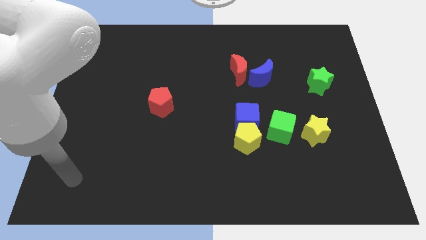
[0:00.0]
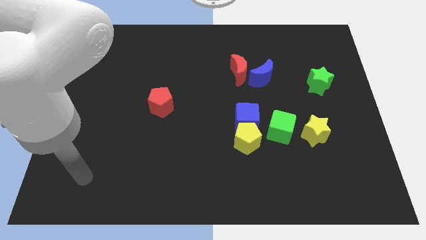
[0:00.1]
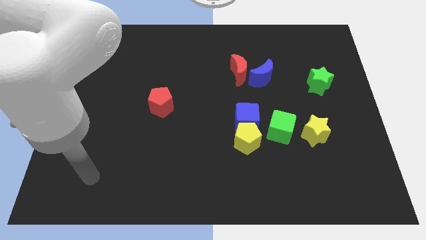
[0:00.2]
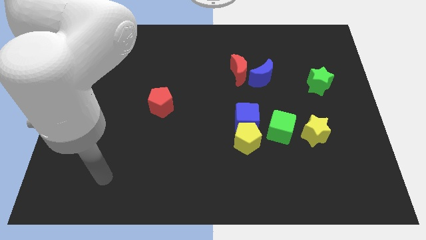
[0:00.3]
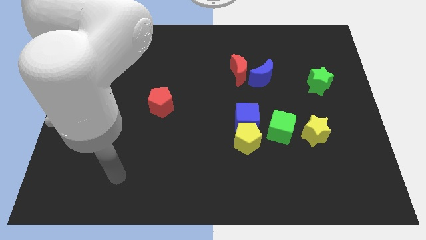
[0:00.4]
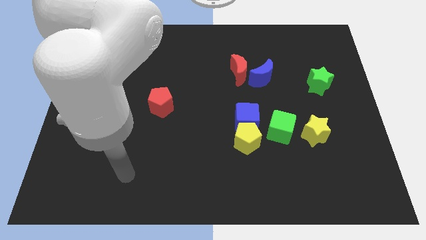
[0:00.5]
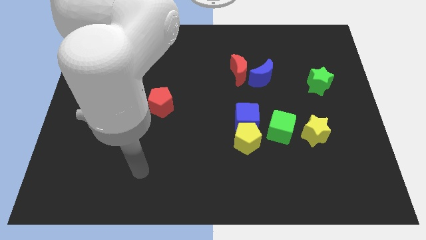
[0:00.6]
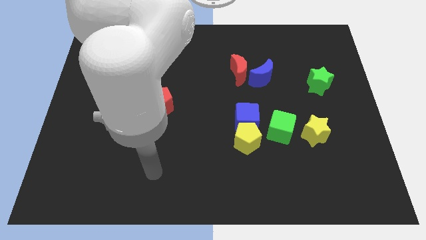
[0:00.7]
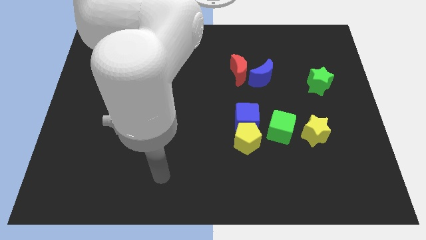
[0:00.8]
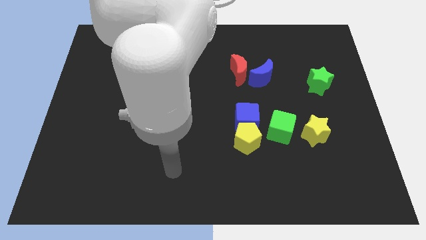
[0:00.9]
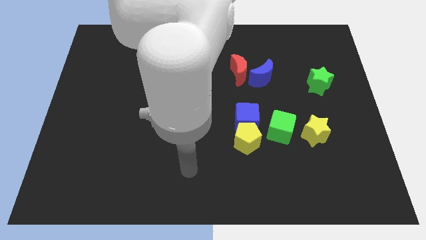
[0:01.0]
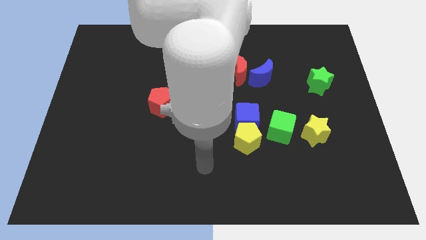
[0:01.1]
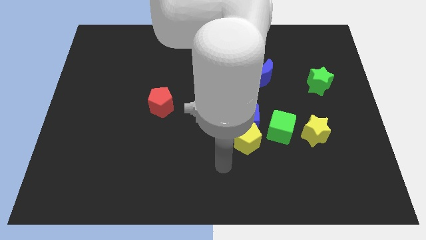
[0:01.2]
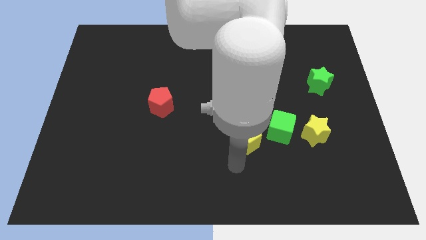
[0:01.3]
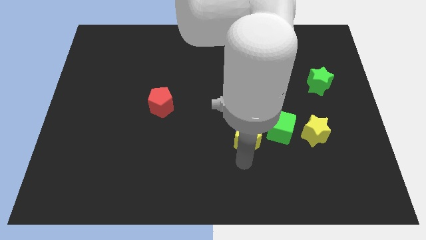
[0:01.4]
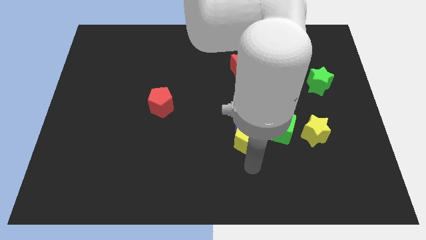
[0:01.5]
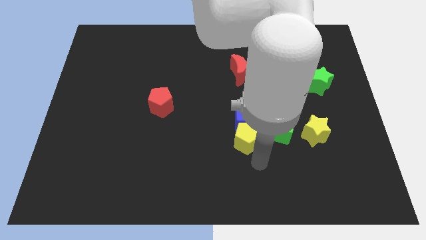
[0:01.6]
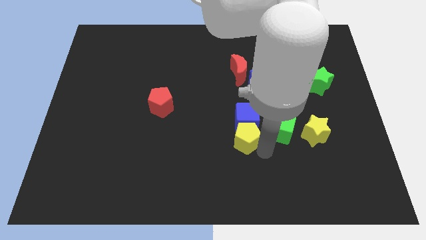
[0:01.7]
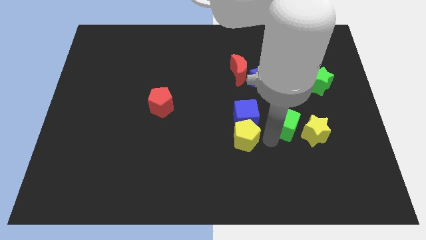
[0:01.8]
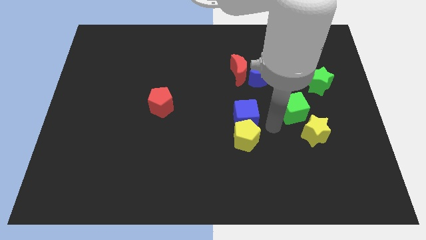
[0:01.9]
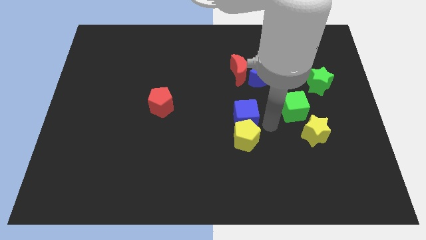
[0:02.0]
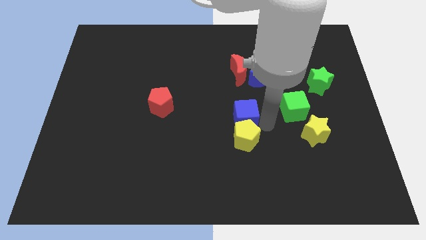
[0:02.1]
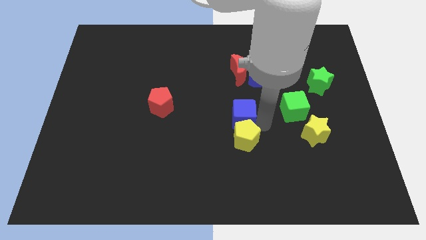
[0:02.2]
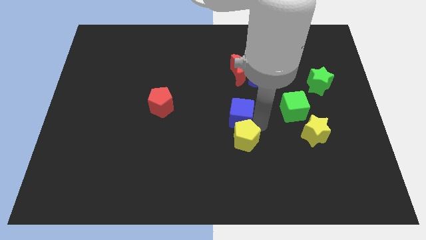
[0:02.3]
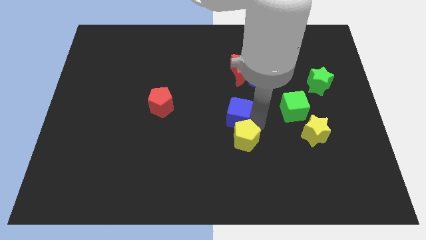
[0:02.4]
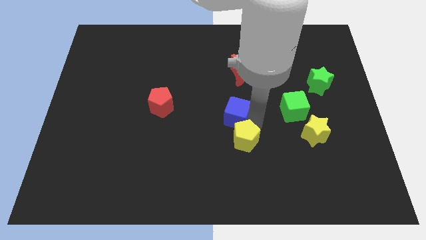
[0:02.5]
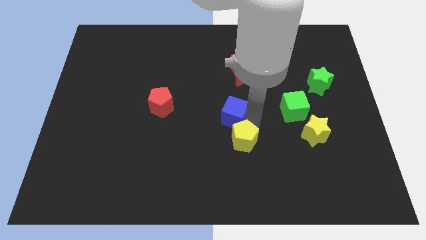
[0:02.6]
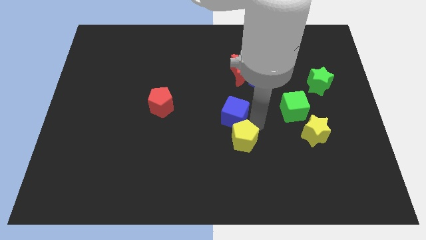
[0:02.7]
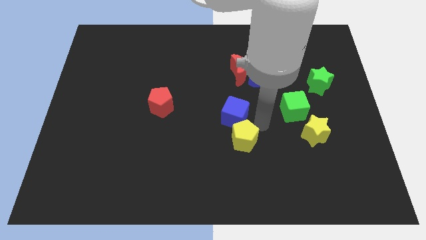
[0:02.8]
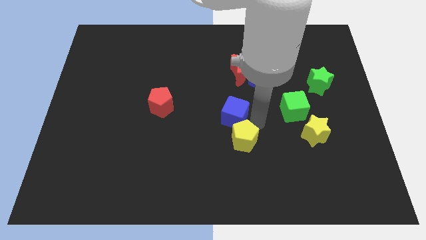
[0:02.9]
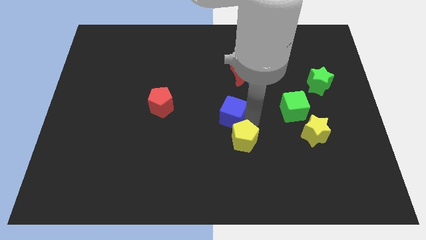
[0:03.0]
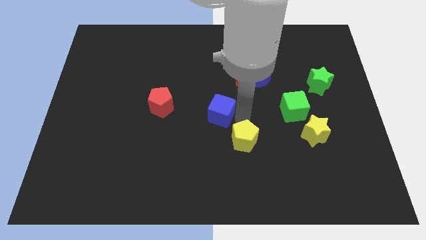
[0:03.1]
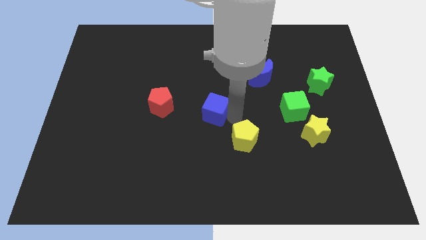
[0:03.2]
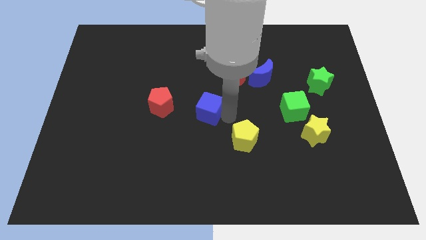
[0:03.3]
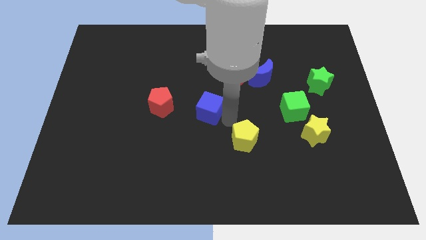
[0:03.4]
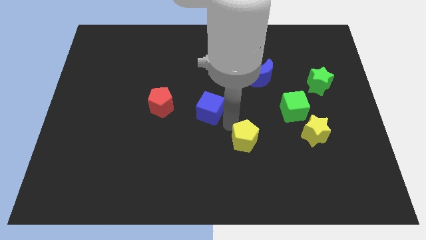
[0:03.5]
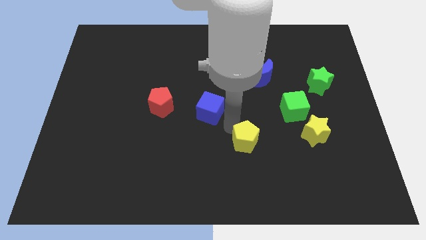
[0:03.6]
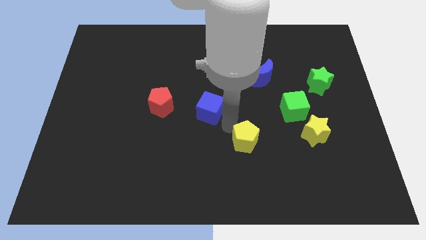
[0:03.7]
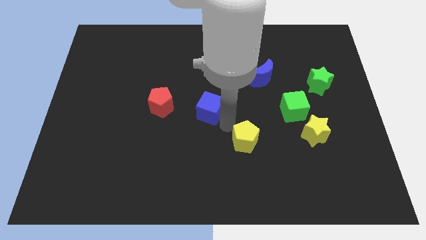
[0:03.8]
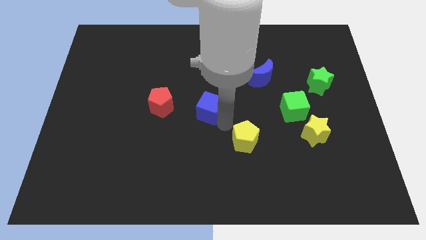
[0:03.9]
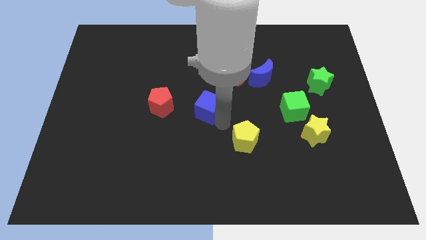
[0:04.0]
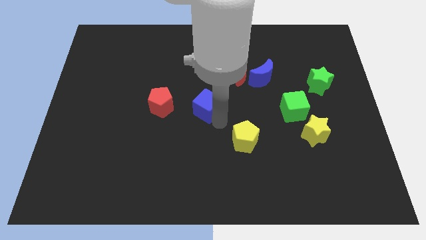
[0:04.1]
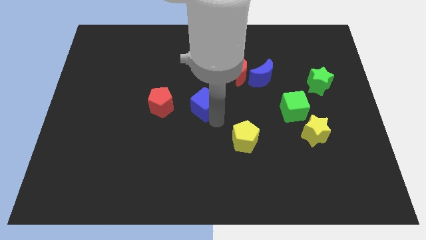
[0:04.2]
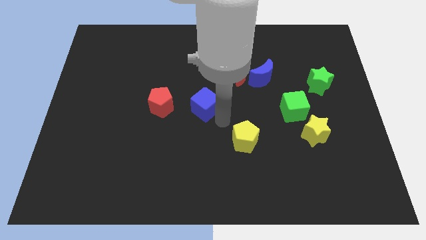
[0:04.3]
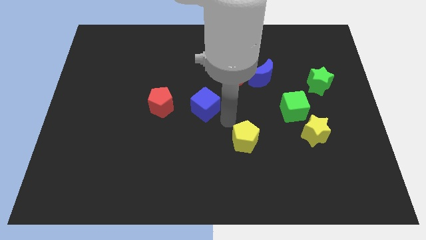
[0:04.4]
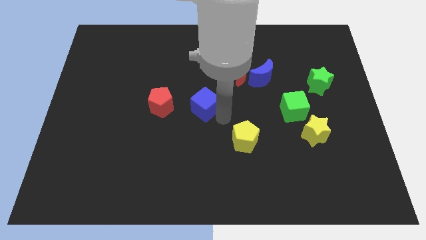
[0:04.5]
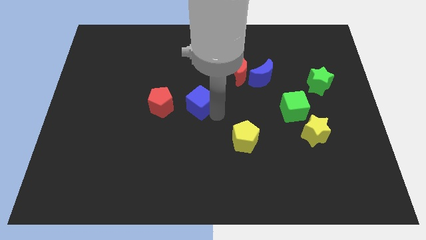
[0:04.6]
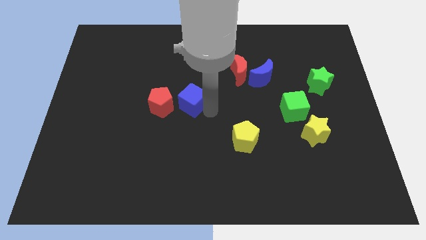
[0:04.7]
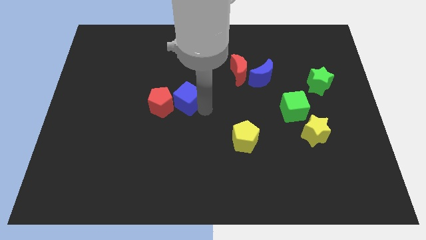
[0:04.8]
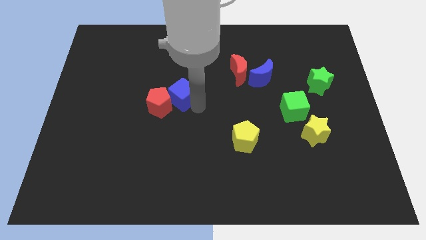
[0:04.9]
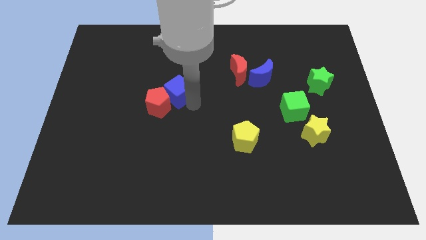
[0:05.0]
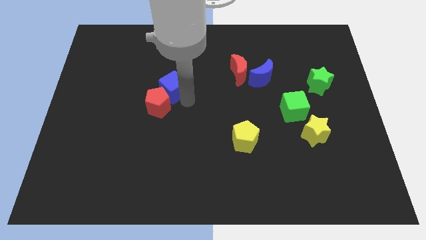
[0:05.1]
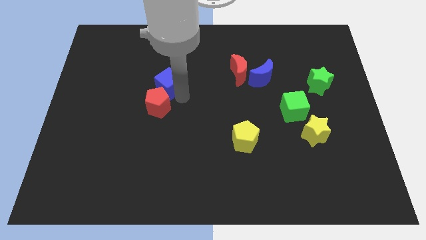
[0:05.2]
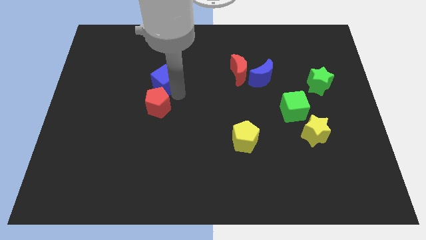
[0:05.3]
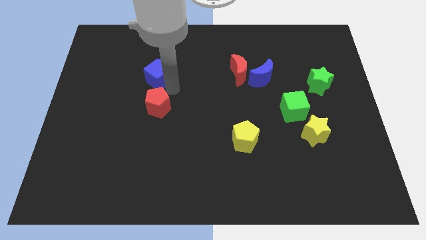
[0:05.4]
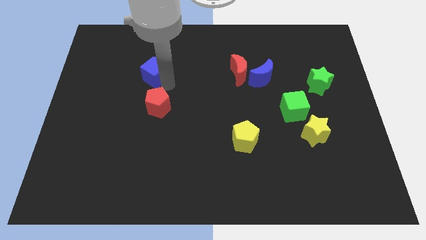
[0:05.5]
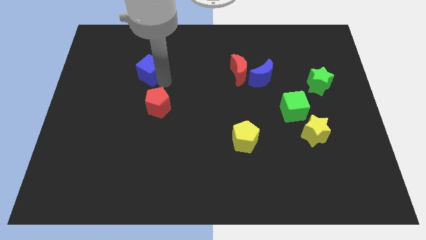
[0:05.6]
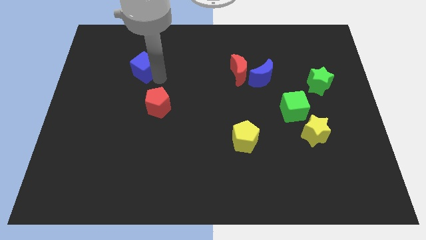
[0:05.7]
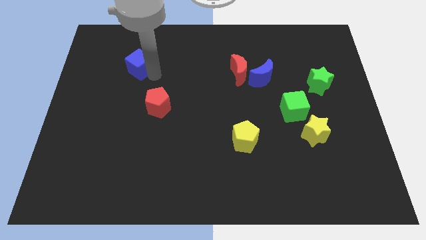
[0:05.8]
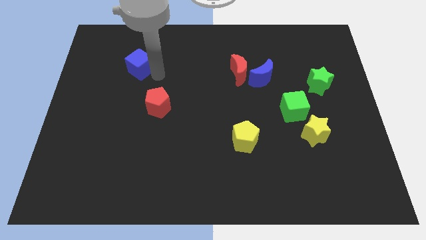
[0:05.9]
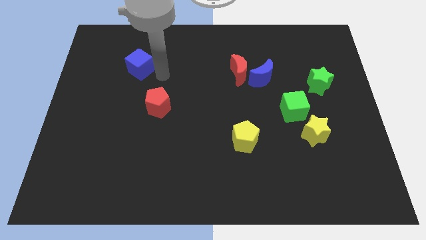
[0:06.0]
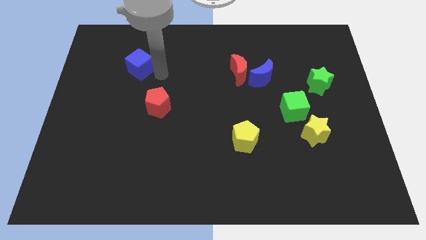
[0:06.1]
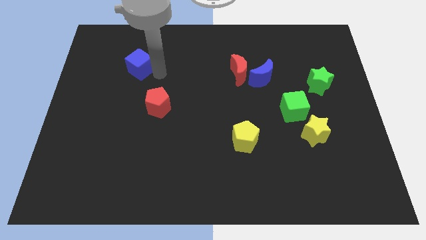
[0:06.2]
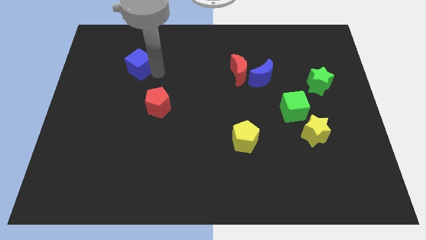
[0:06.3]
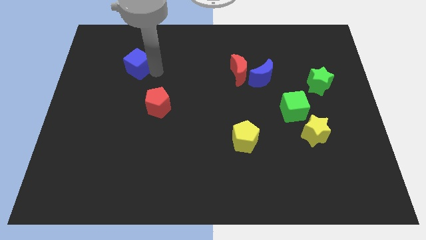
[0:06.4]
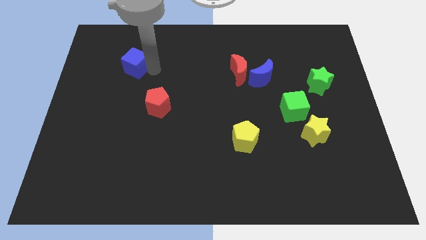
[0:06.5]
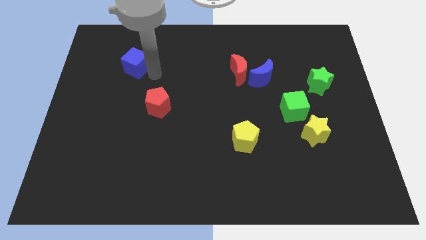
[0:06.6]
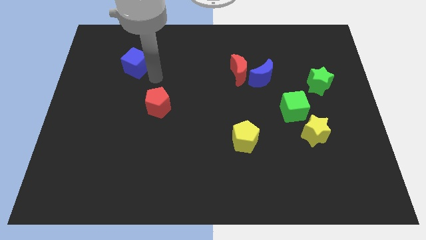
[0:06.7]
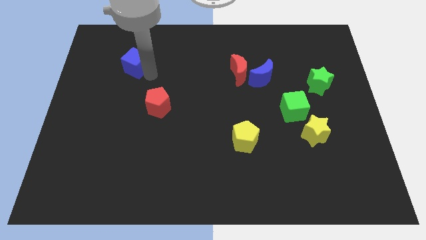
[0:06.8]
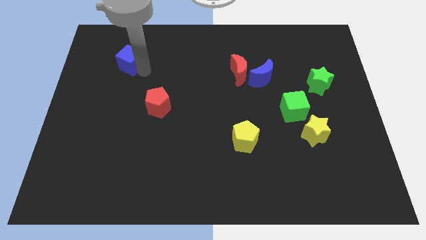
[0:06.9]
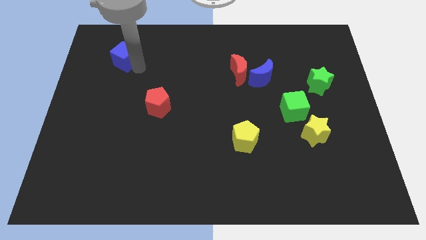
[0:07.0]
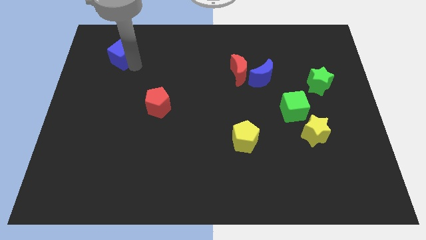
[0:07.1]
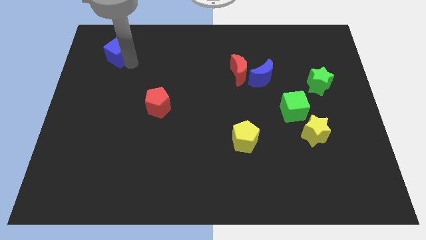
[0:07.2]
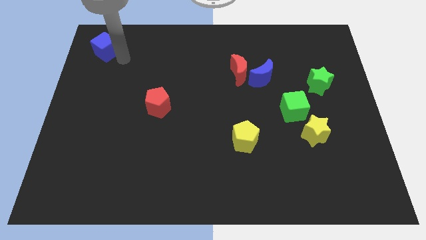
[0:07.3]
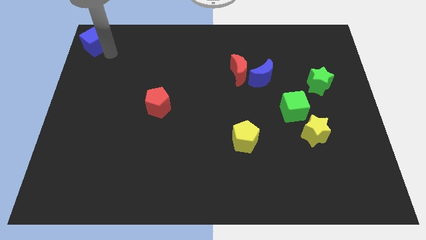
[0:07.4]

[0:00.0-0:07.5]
put the blue cube to the top left of the board
